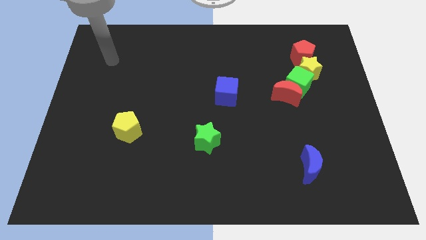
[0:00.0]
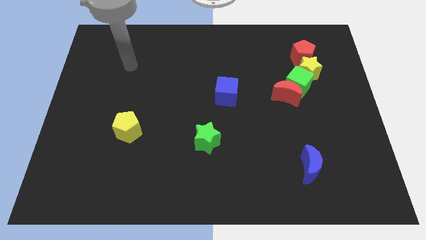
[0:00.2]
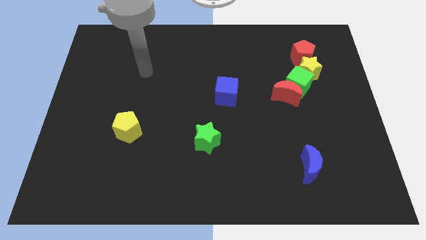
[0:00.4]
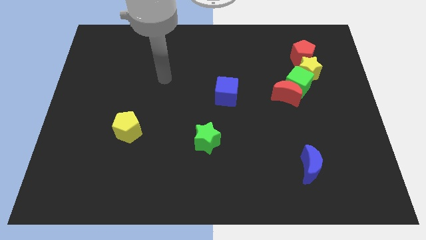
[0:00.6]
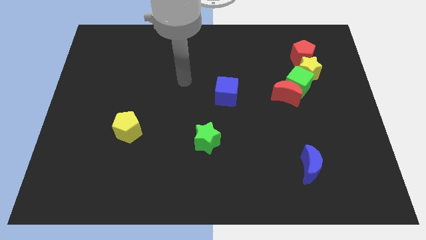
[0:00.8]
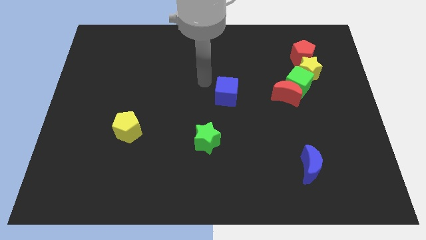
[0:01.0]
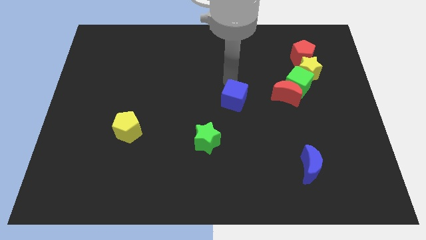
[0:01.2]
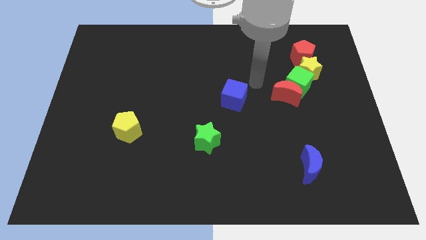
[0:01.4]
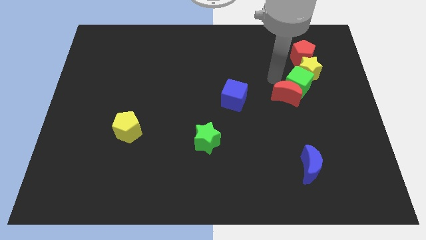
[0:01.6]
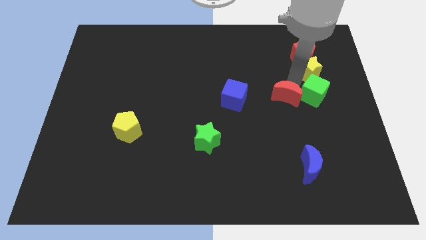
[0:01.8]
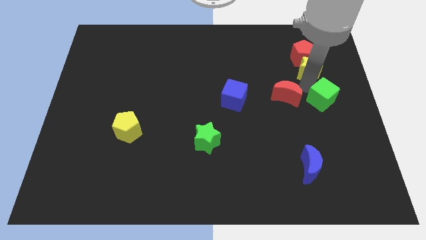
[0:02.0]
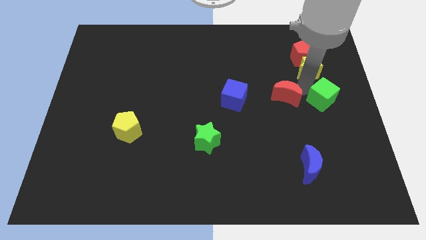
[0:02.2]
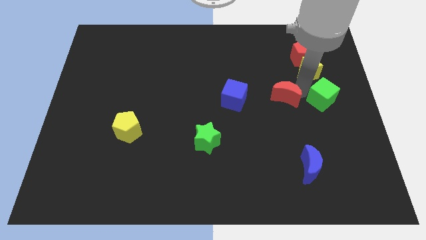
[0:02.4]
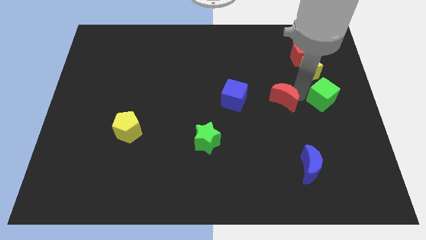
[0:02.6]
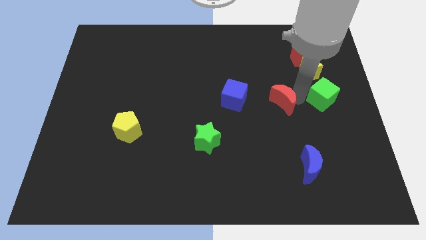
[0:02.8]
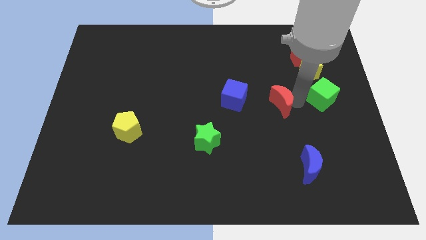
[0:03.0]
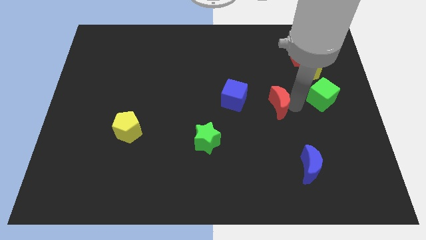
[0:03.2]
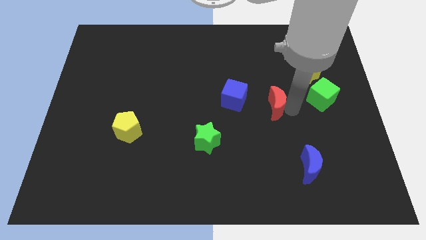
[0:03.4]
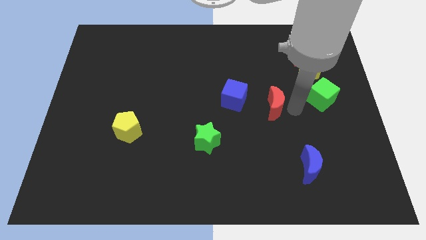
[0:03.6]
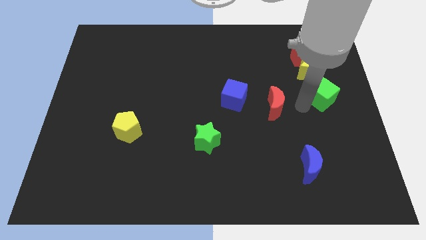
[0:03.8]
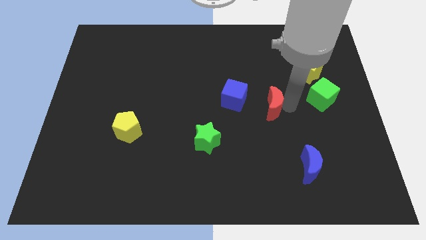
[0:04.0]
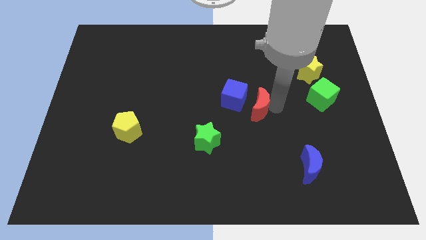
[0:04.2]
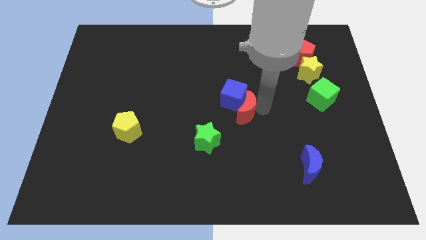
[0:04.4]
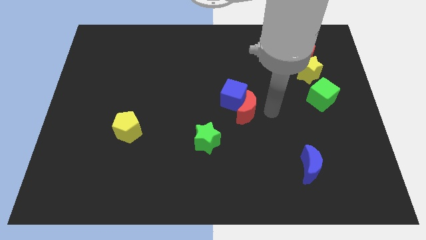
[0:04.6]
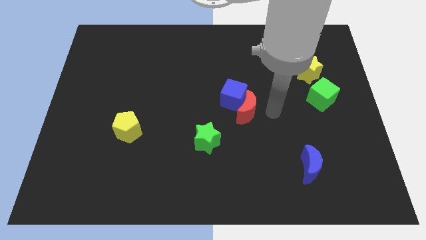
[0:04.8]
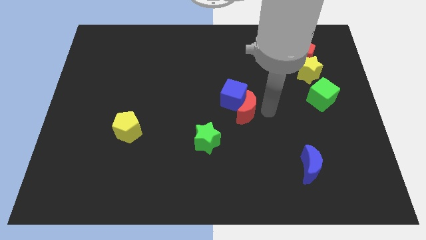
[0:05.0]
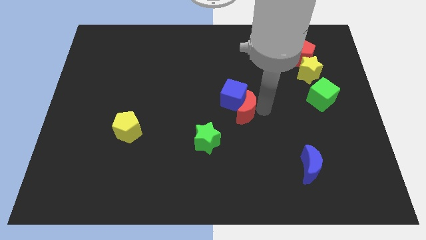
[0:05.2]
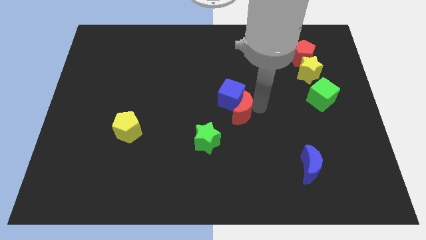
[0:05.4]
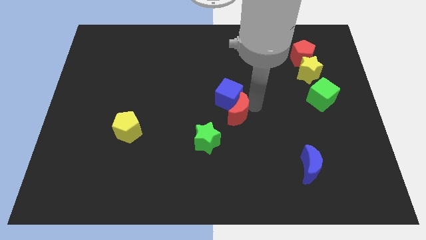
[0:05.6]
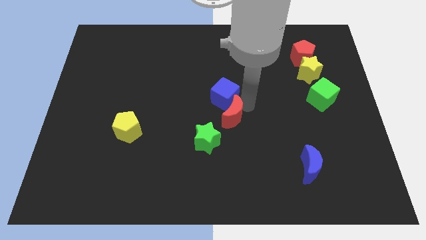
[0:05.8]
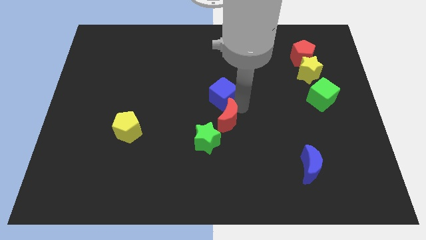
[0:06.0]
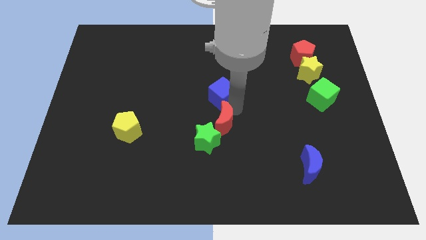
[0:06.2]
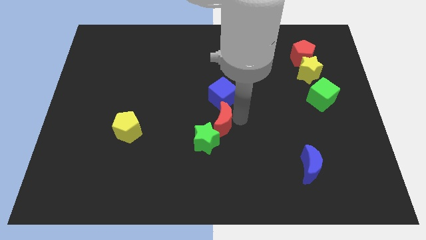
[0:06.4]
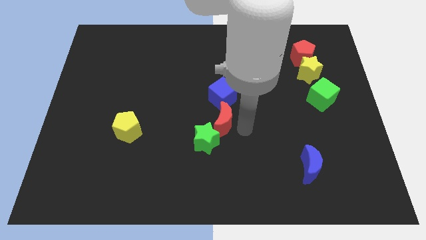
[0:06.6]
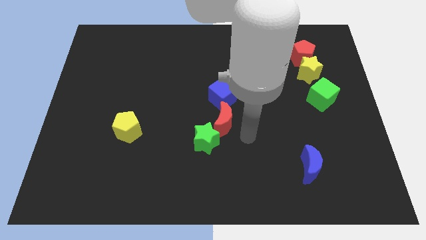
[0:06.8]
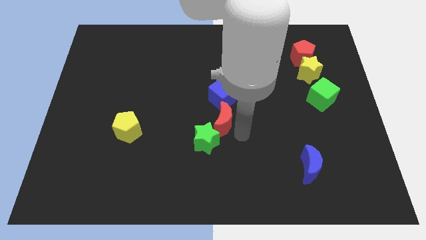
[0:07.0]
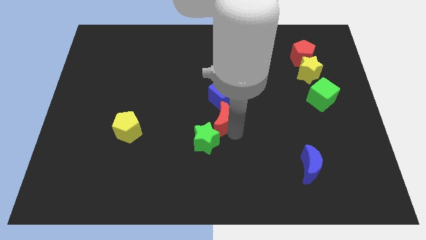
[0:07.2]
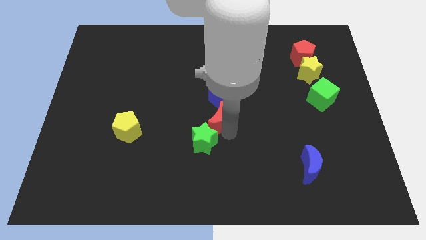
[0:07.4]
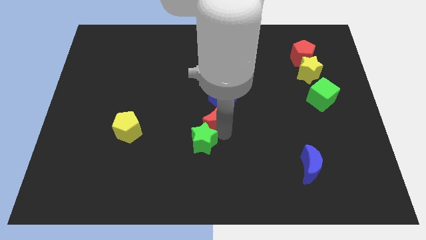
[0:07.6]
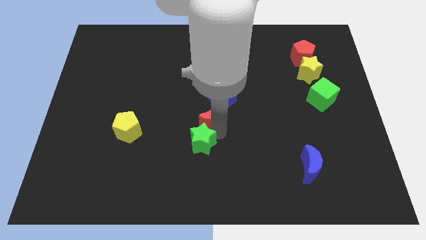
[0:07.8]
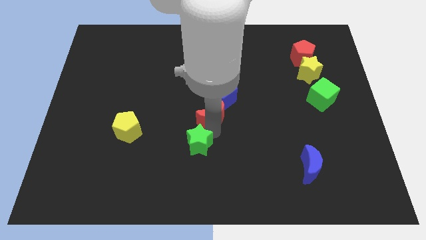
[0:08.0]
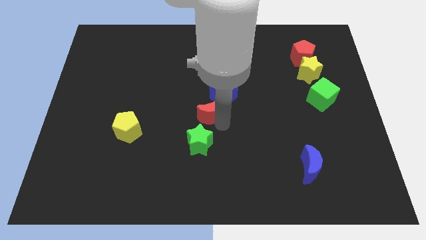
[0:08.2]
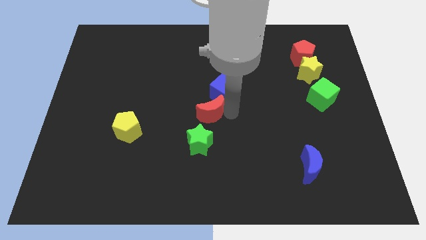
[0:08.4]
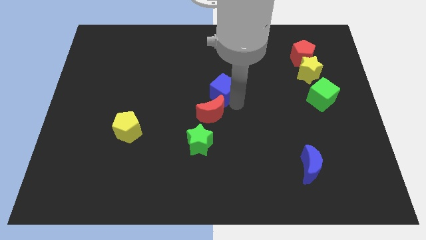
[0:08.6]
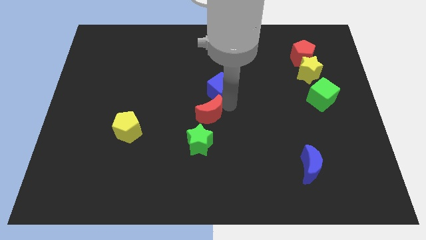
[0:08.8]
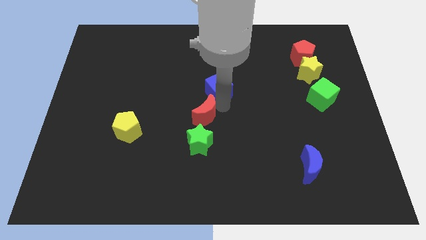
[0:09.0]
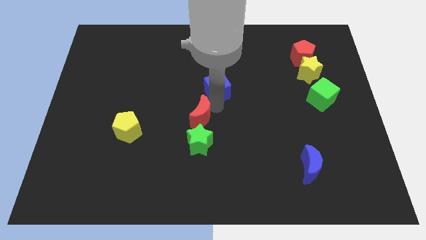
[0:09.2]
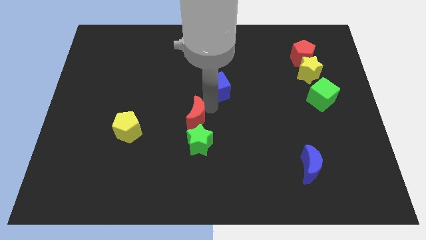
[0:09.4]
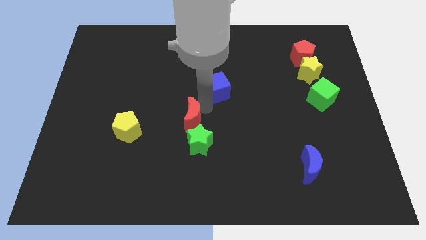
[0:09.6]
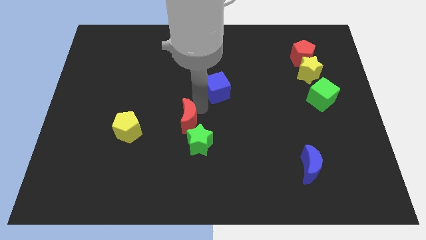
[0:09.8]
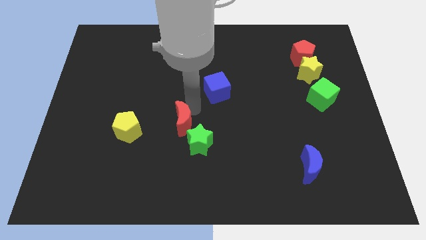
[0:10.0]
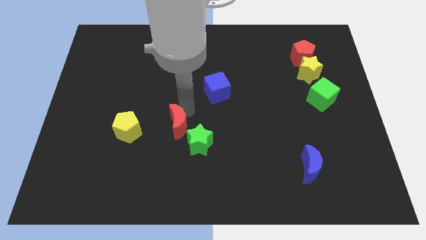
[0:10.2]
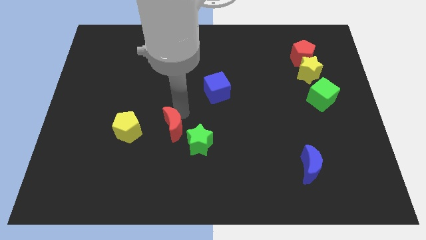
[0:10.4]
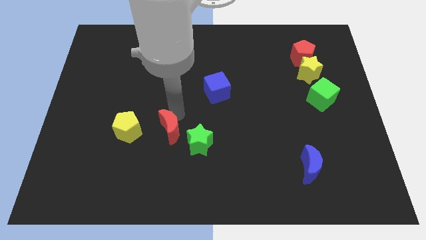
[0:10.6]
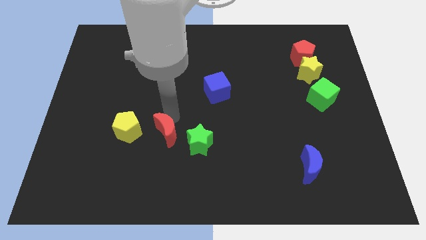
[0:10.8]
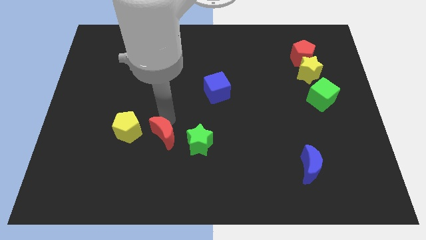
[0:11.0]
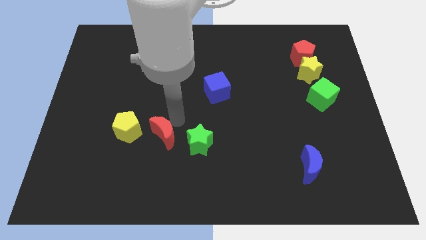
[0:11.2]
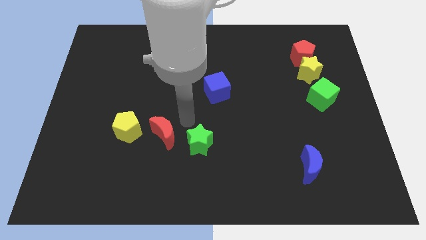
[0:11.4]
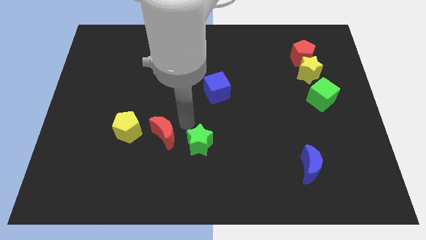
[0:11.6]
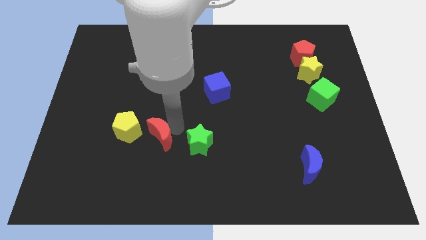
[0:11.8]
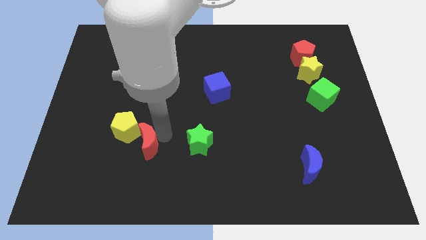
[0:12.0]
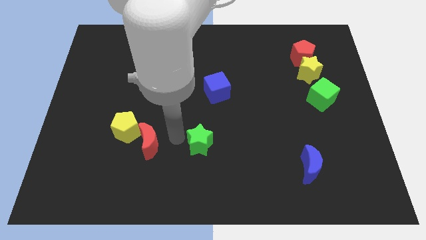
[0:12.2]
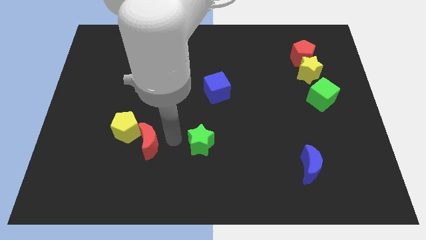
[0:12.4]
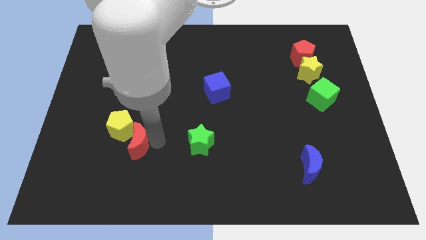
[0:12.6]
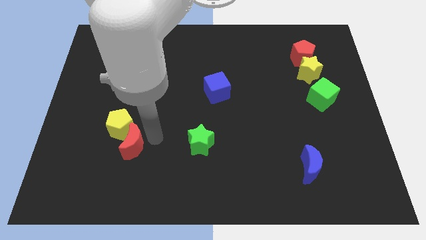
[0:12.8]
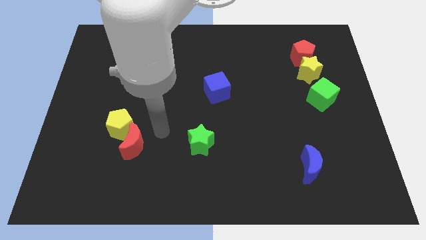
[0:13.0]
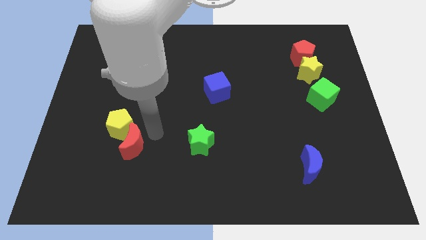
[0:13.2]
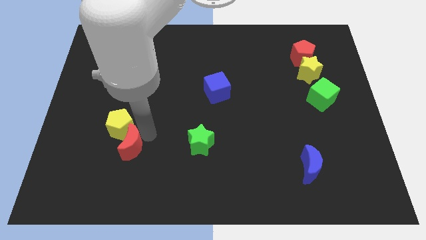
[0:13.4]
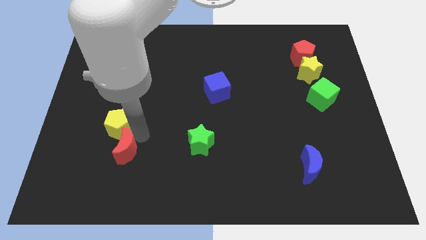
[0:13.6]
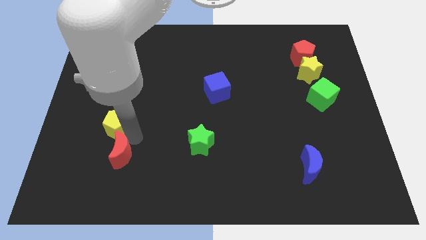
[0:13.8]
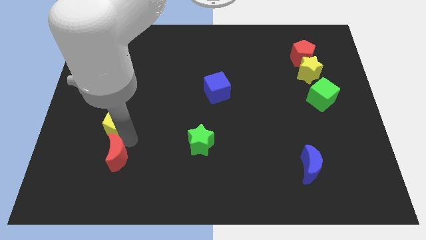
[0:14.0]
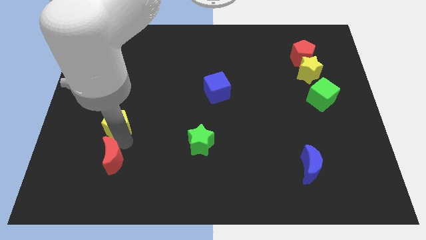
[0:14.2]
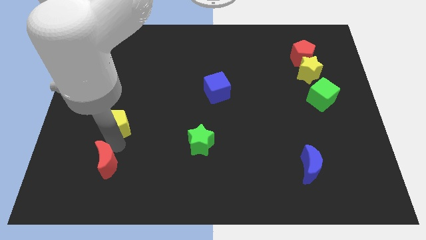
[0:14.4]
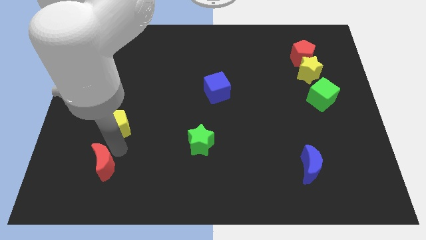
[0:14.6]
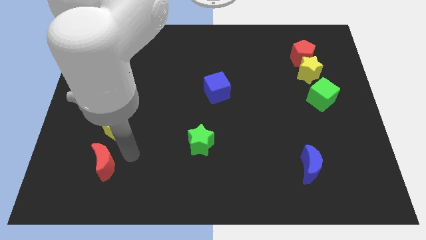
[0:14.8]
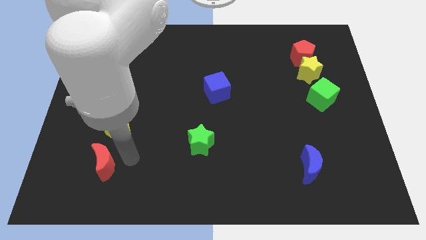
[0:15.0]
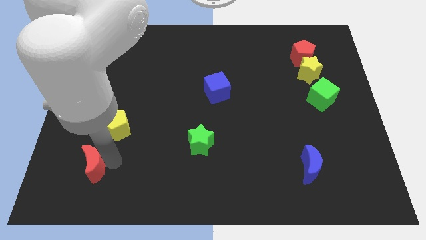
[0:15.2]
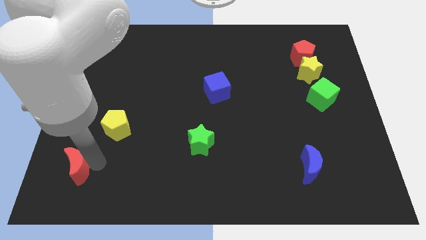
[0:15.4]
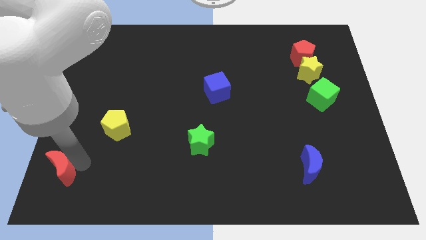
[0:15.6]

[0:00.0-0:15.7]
move the red moon to the lower left corner

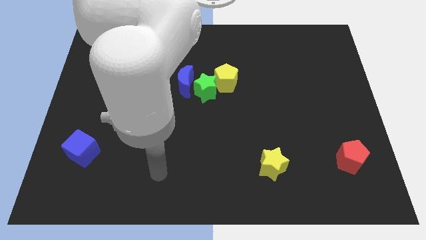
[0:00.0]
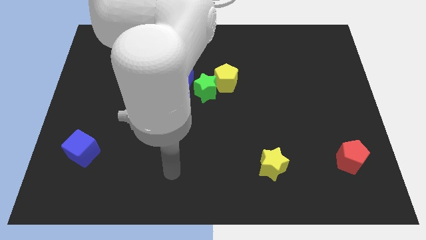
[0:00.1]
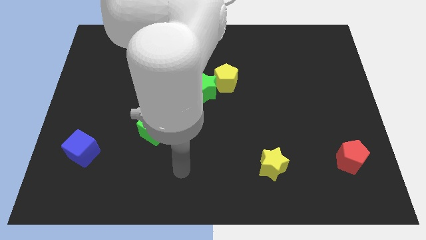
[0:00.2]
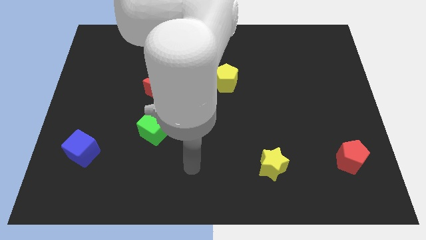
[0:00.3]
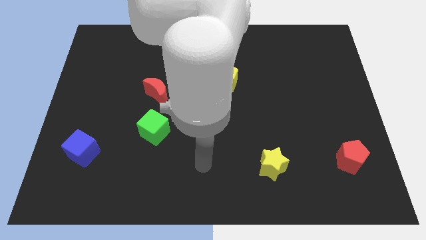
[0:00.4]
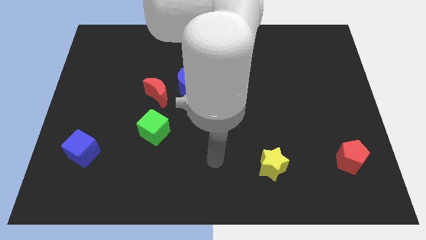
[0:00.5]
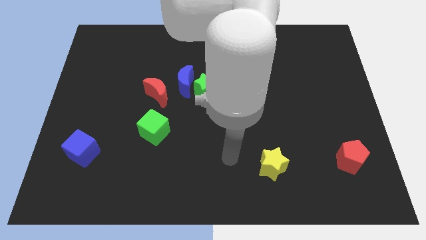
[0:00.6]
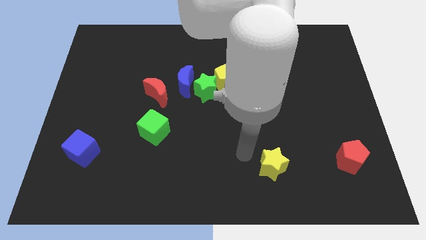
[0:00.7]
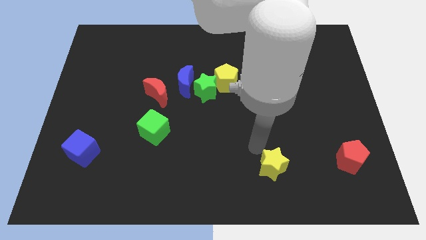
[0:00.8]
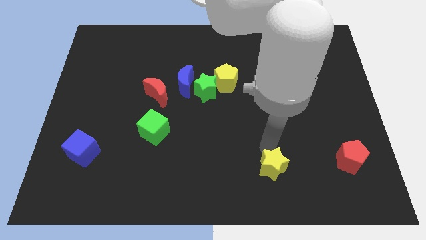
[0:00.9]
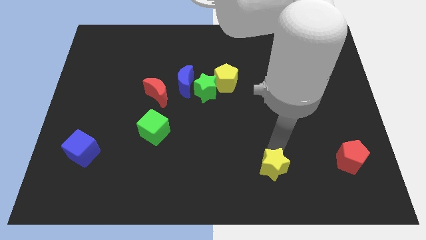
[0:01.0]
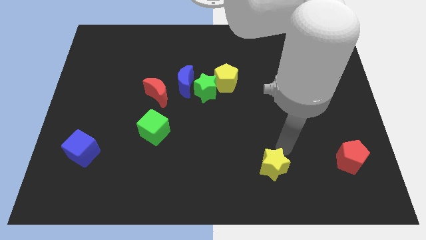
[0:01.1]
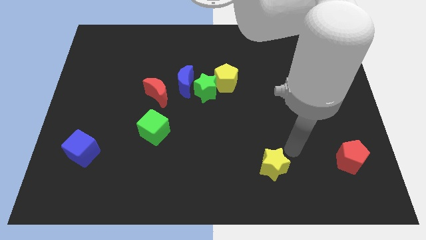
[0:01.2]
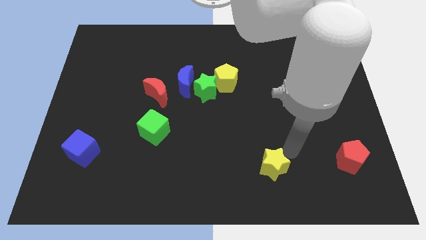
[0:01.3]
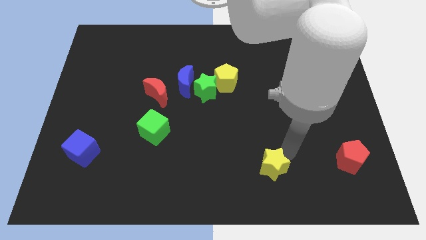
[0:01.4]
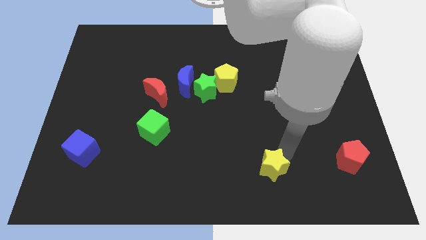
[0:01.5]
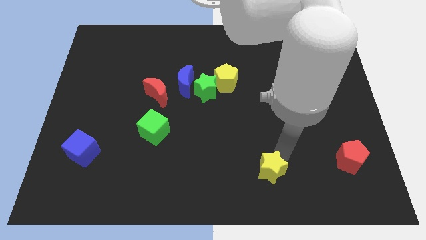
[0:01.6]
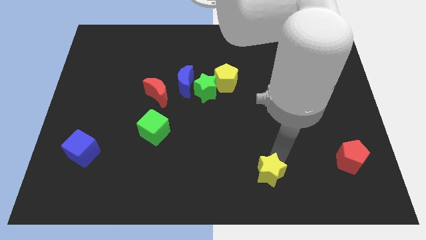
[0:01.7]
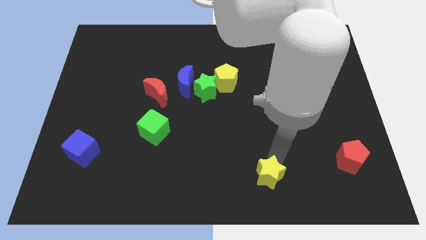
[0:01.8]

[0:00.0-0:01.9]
push the yellow star to the bottom
